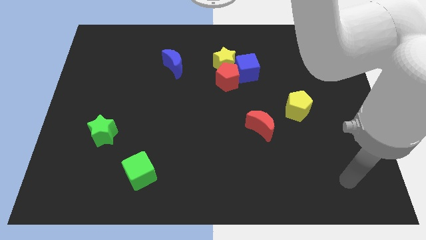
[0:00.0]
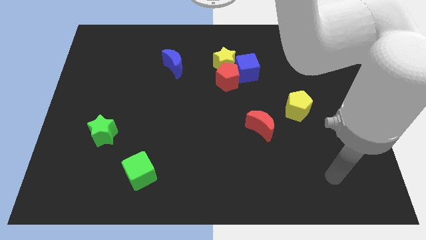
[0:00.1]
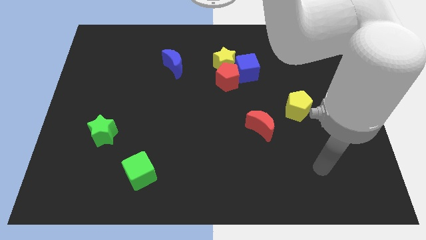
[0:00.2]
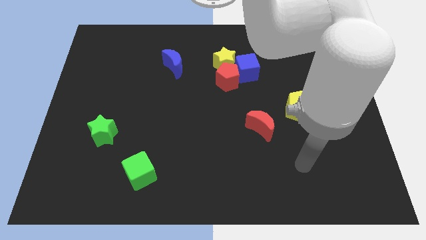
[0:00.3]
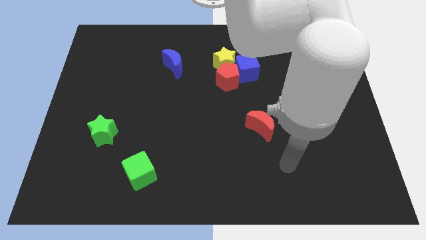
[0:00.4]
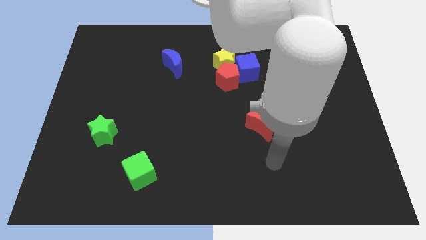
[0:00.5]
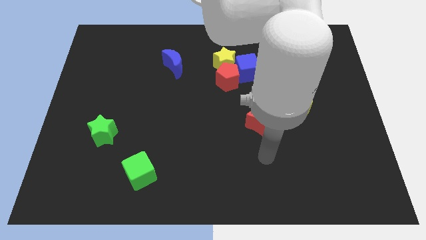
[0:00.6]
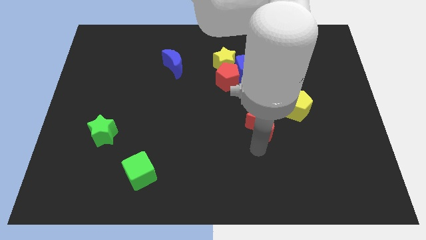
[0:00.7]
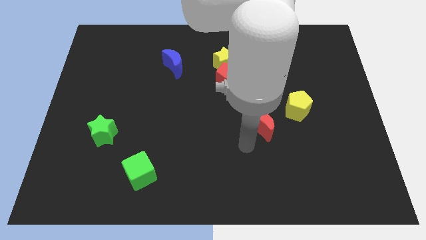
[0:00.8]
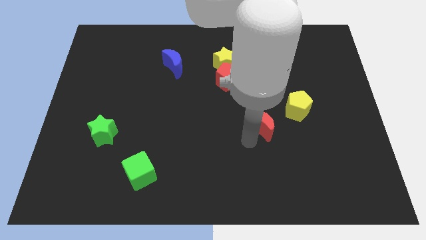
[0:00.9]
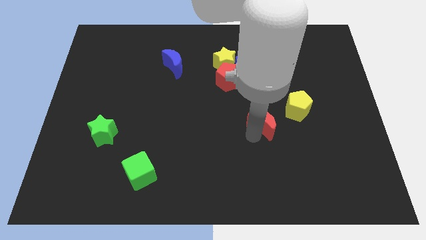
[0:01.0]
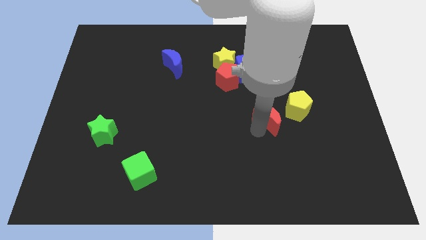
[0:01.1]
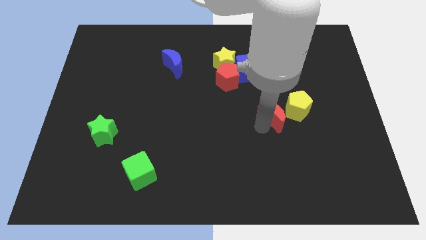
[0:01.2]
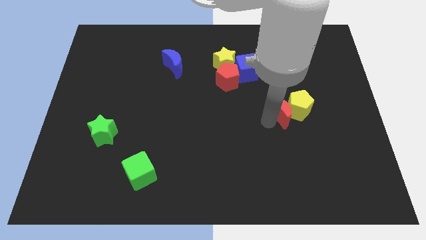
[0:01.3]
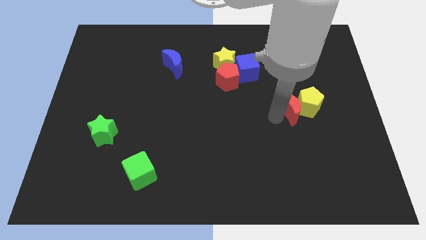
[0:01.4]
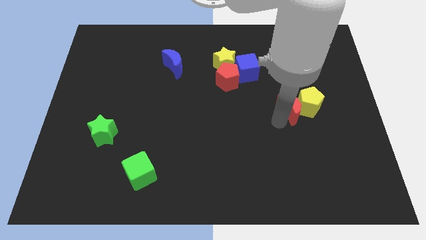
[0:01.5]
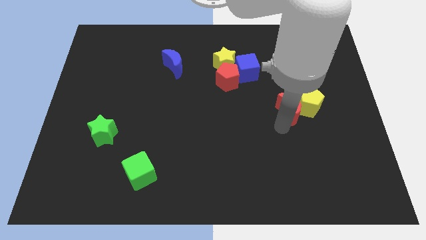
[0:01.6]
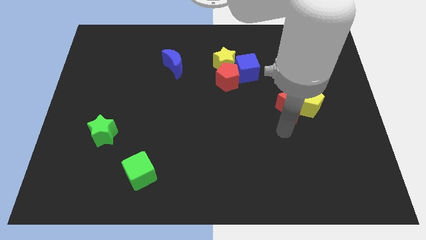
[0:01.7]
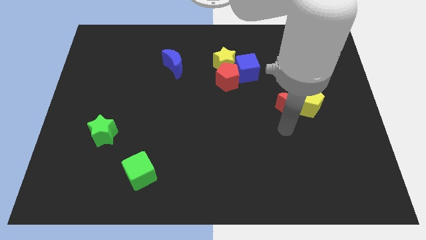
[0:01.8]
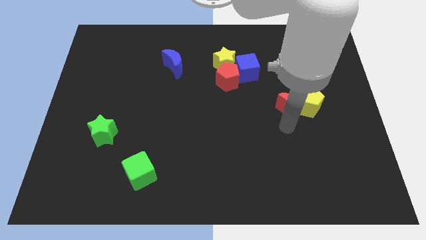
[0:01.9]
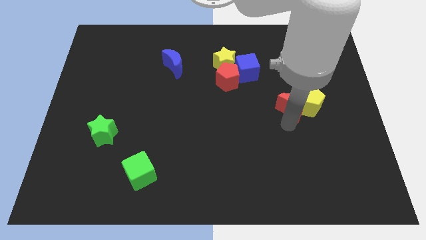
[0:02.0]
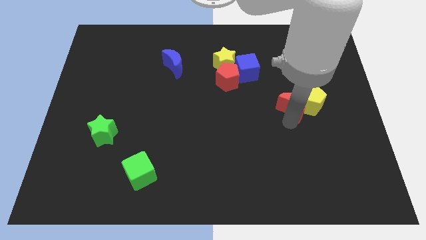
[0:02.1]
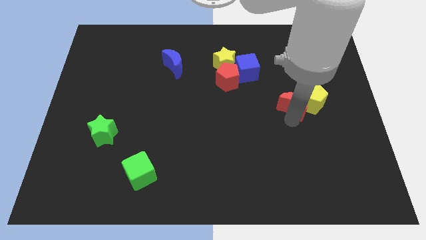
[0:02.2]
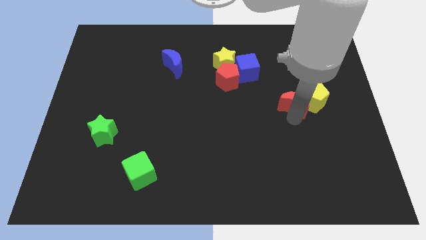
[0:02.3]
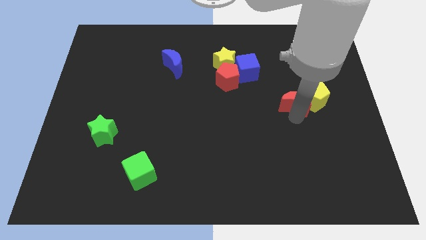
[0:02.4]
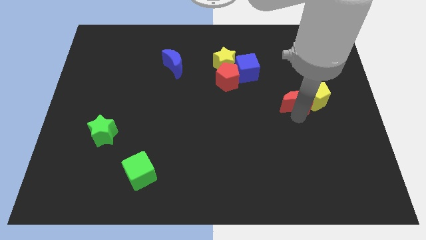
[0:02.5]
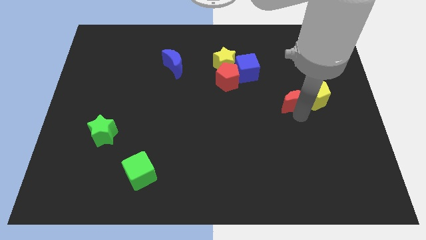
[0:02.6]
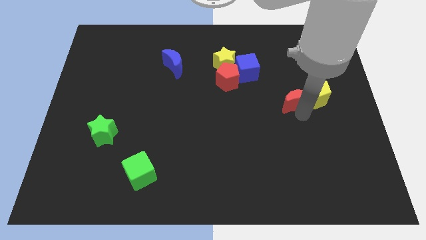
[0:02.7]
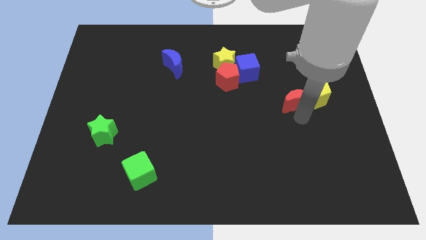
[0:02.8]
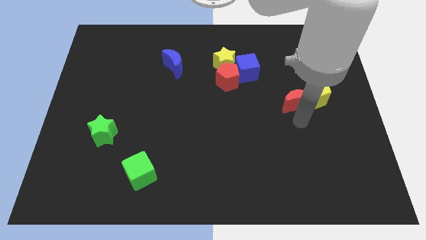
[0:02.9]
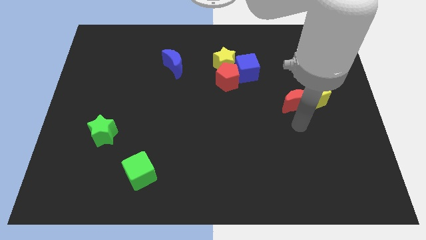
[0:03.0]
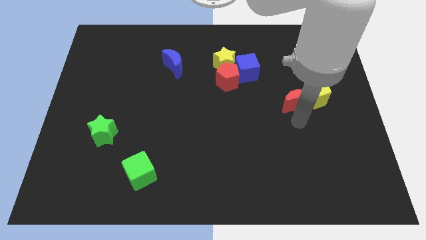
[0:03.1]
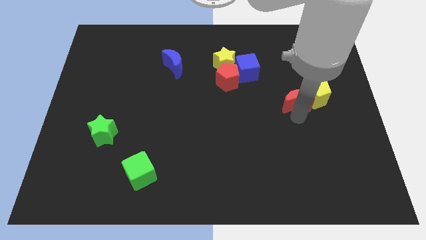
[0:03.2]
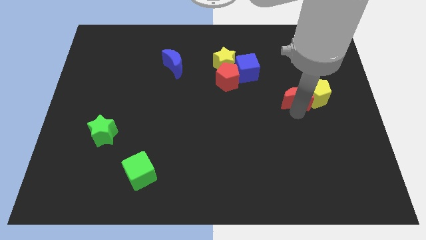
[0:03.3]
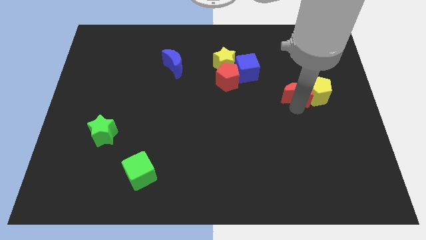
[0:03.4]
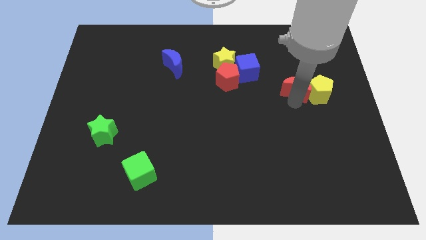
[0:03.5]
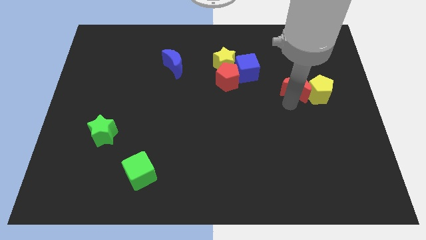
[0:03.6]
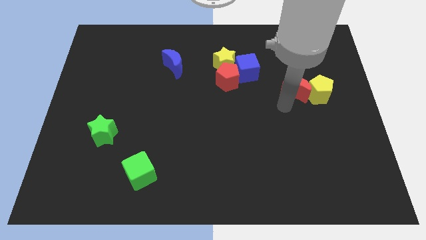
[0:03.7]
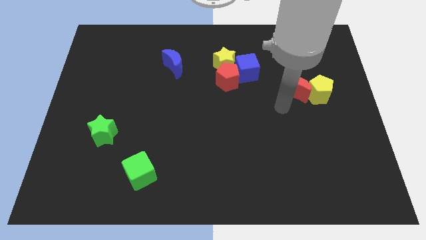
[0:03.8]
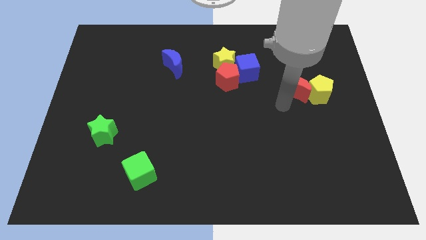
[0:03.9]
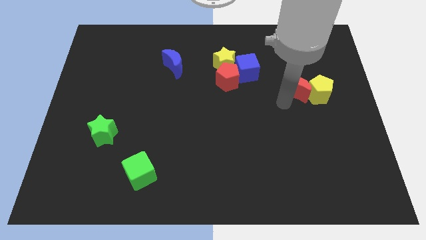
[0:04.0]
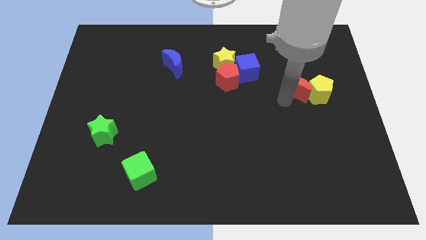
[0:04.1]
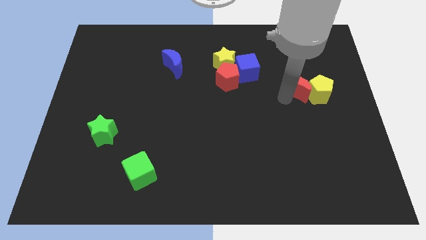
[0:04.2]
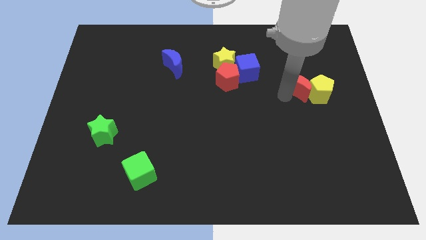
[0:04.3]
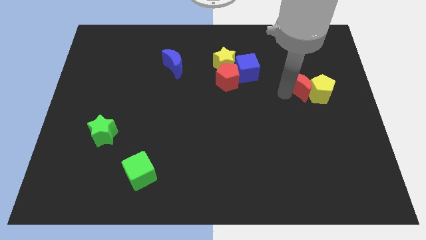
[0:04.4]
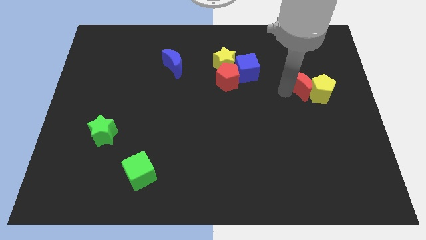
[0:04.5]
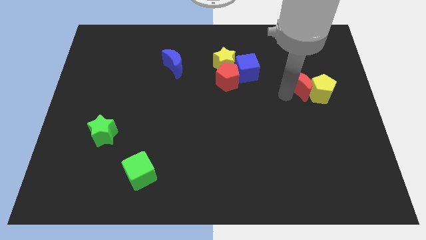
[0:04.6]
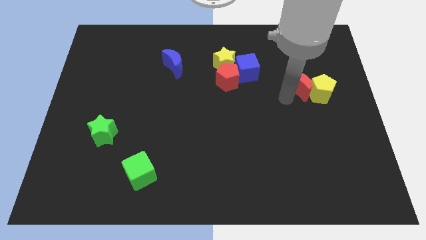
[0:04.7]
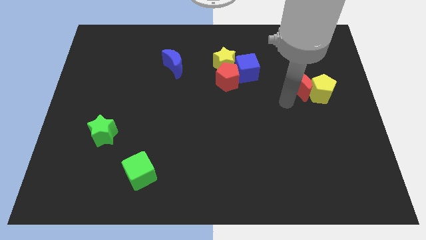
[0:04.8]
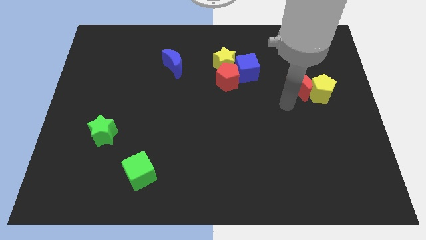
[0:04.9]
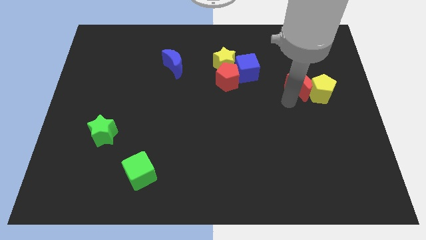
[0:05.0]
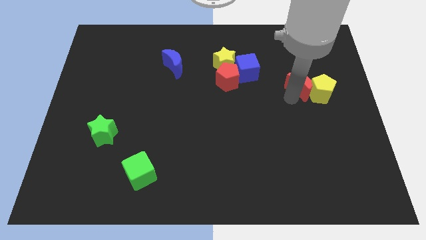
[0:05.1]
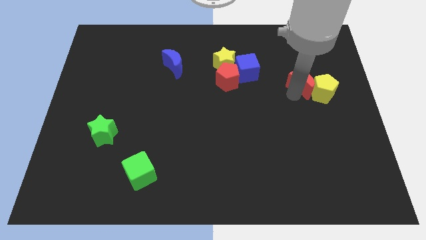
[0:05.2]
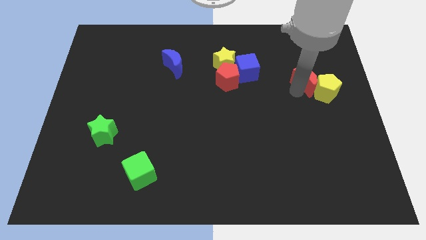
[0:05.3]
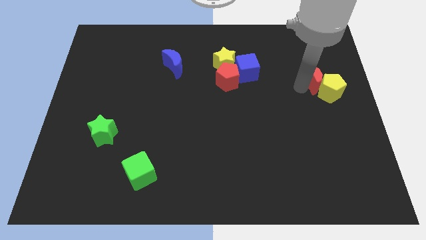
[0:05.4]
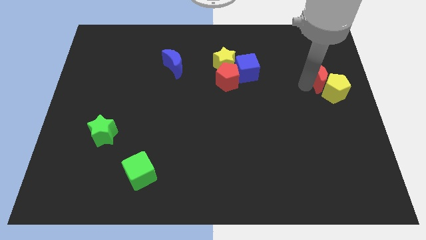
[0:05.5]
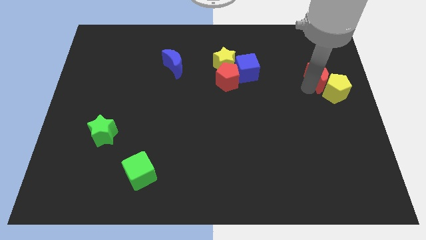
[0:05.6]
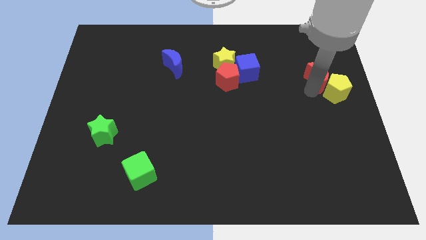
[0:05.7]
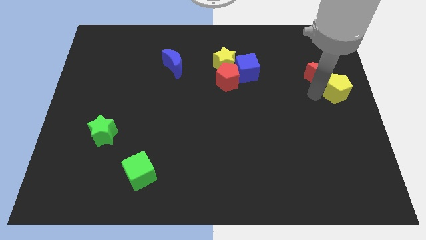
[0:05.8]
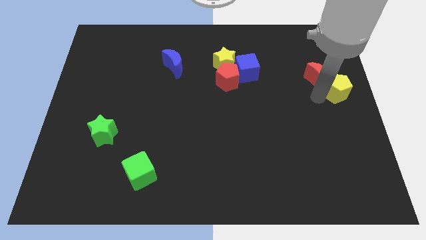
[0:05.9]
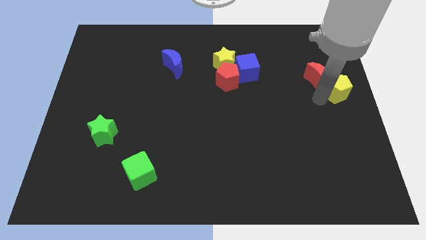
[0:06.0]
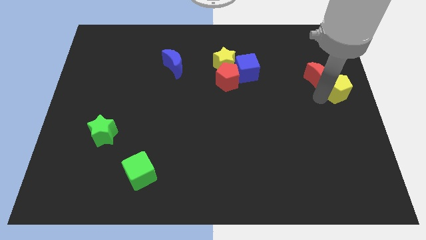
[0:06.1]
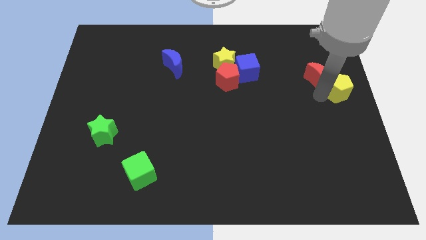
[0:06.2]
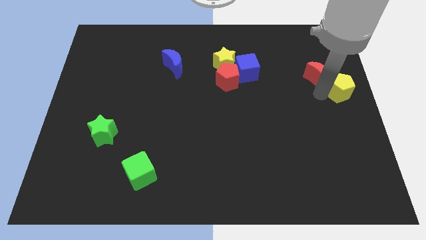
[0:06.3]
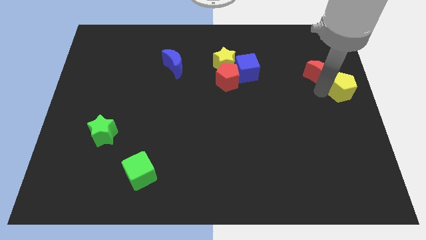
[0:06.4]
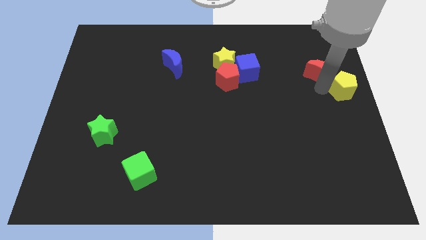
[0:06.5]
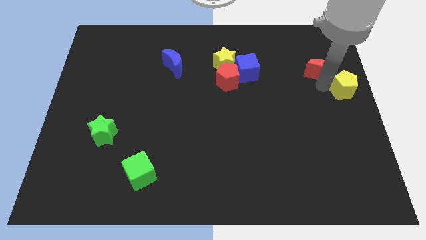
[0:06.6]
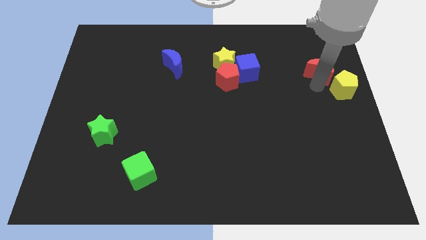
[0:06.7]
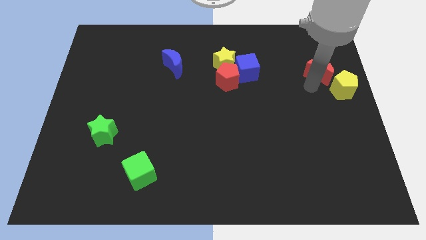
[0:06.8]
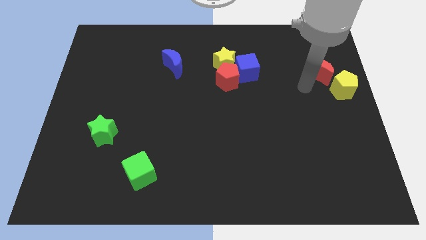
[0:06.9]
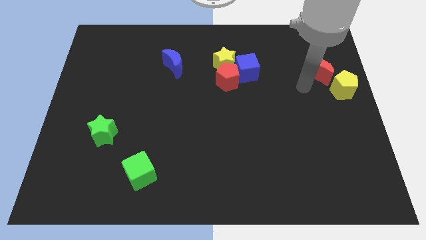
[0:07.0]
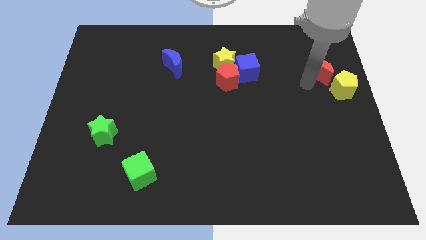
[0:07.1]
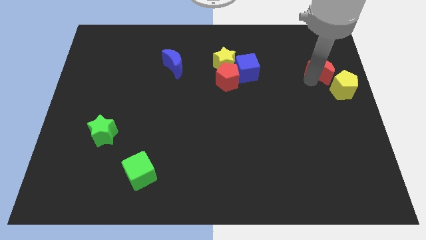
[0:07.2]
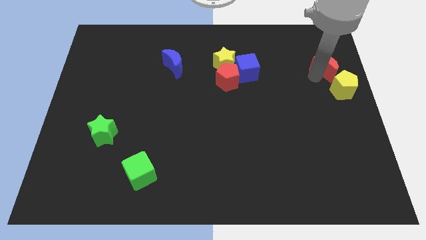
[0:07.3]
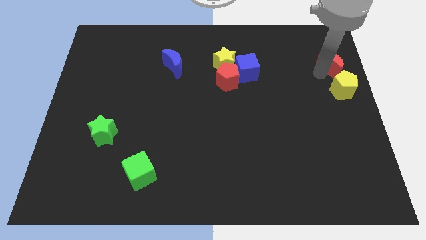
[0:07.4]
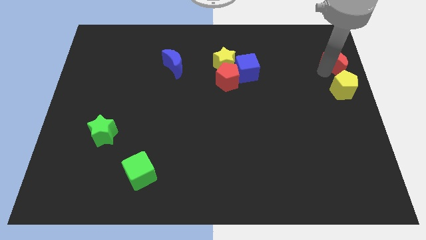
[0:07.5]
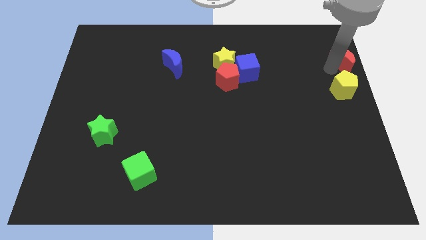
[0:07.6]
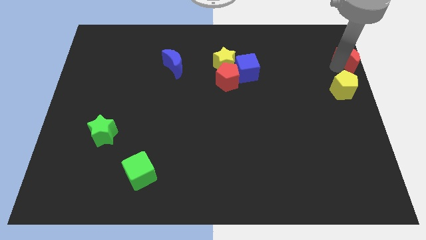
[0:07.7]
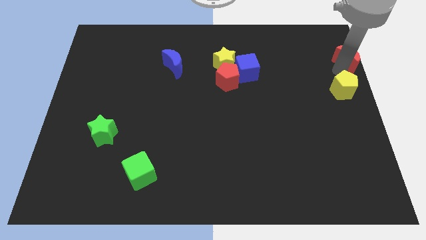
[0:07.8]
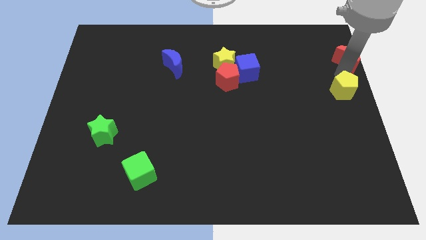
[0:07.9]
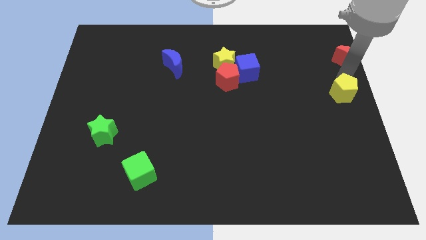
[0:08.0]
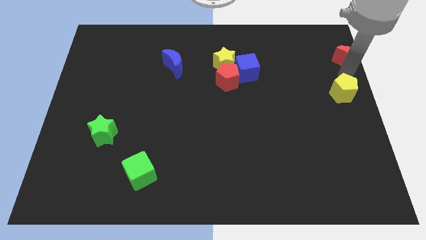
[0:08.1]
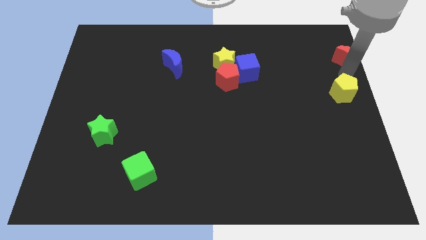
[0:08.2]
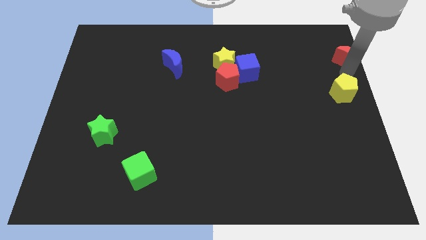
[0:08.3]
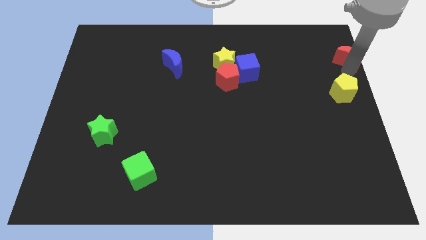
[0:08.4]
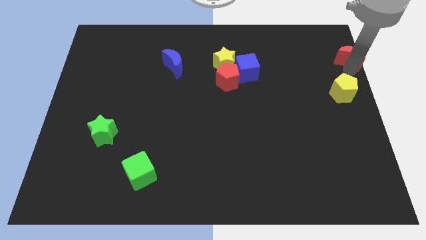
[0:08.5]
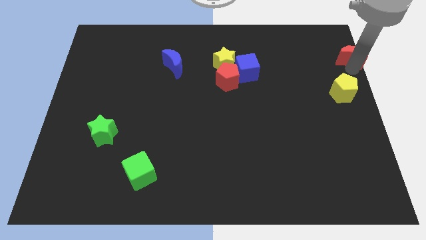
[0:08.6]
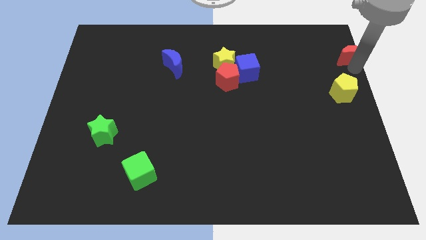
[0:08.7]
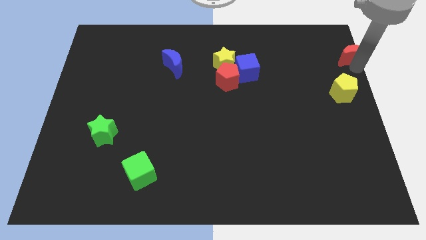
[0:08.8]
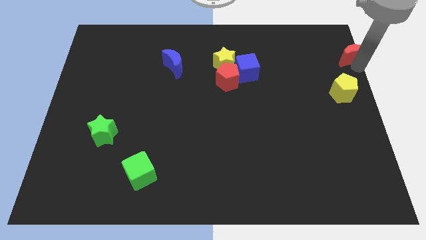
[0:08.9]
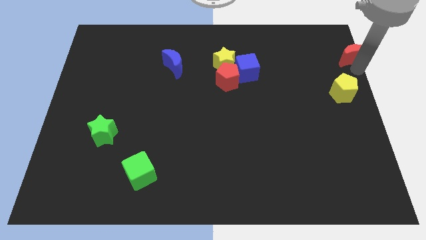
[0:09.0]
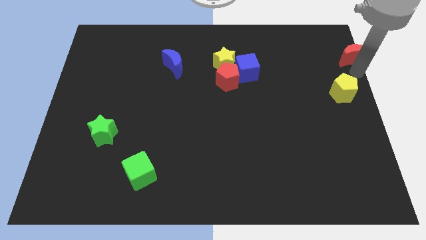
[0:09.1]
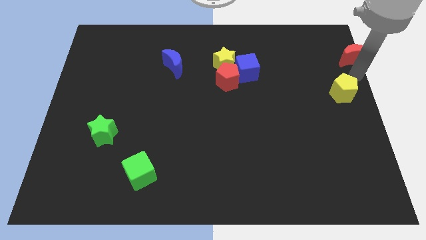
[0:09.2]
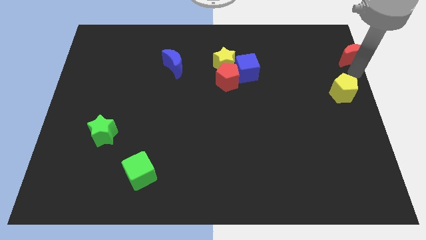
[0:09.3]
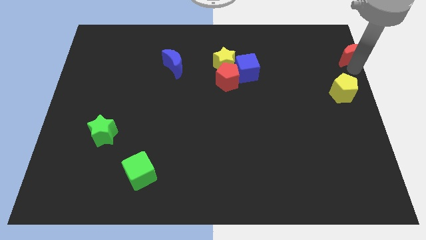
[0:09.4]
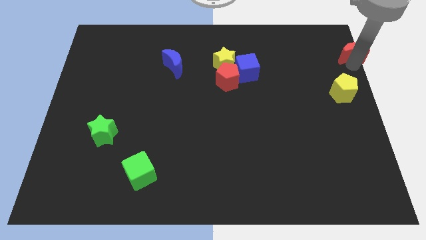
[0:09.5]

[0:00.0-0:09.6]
put the red moon to the top right
